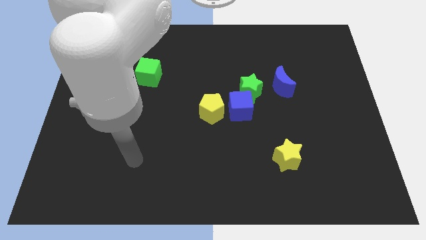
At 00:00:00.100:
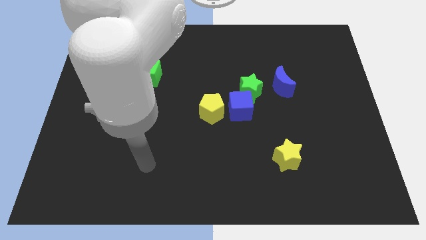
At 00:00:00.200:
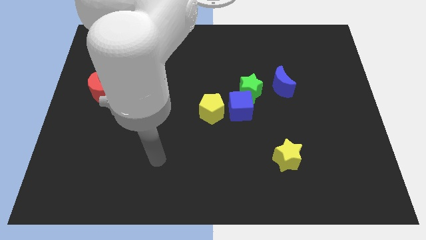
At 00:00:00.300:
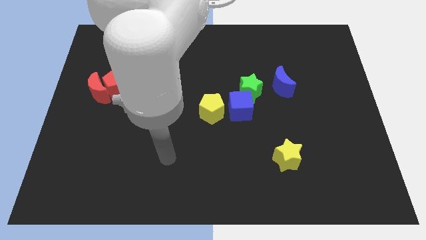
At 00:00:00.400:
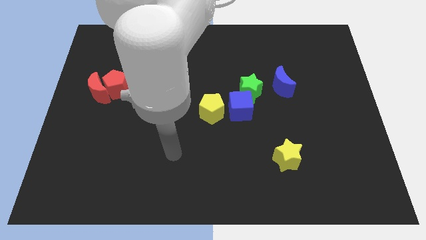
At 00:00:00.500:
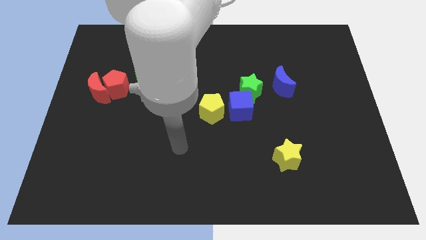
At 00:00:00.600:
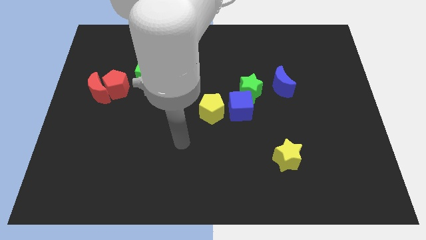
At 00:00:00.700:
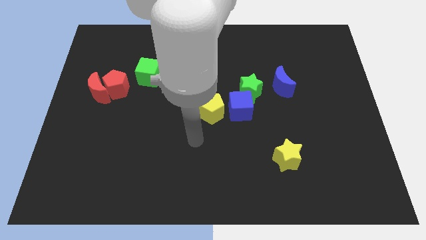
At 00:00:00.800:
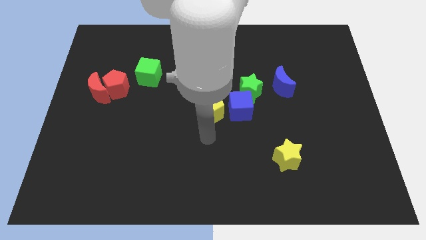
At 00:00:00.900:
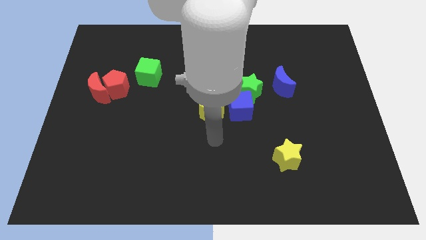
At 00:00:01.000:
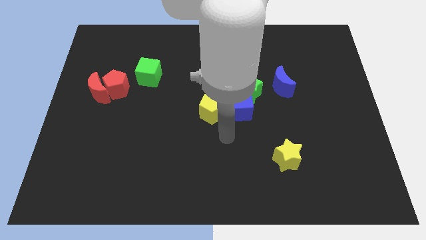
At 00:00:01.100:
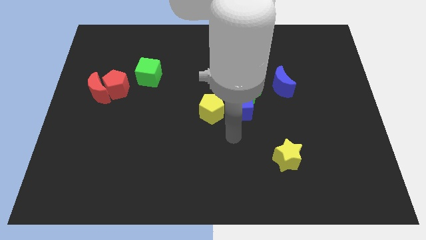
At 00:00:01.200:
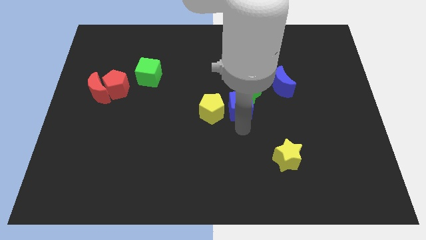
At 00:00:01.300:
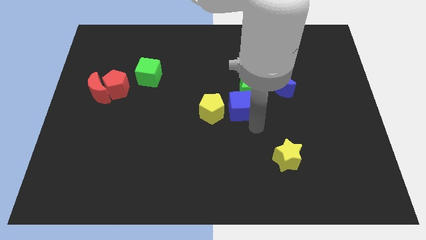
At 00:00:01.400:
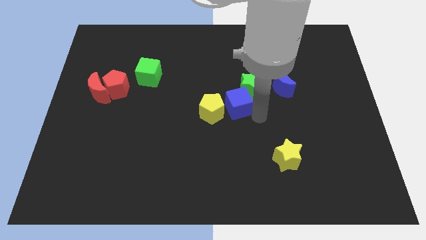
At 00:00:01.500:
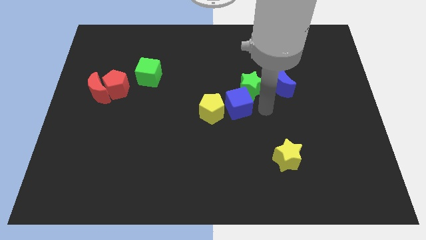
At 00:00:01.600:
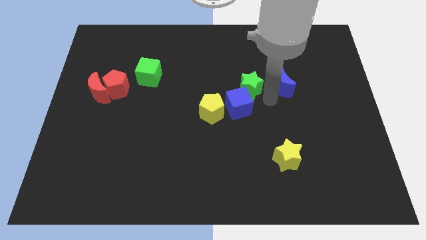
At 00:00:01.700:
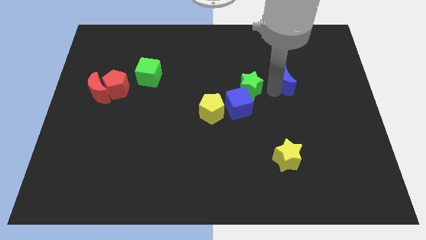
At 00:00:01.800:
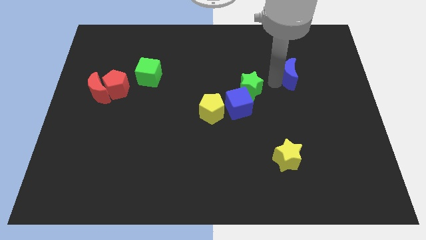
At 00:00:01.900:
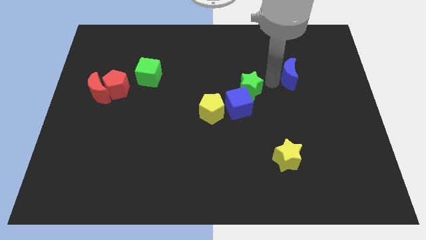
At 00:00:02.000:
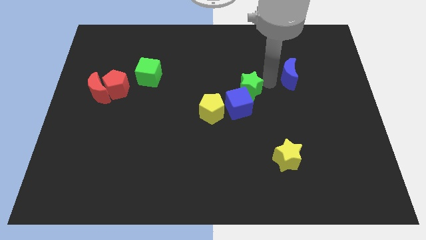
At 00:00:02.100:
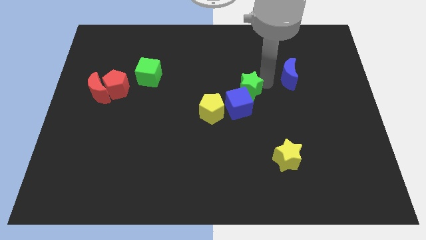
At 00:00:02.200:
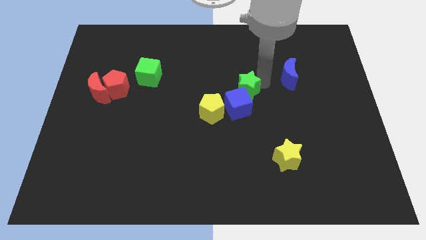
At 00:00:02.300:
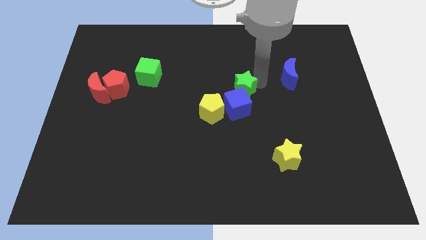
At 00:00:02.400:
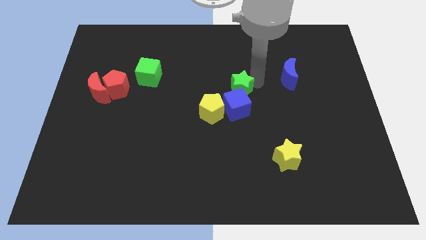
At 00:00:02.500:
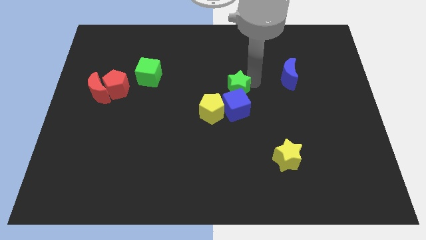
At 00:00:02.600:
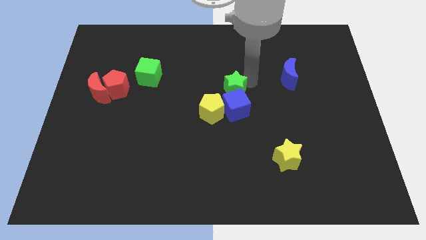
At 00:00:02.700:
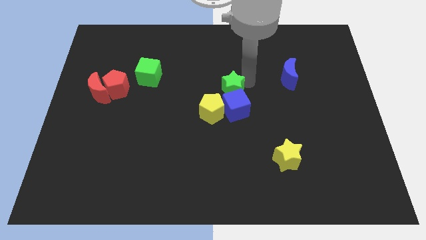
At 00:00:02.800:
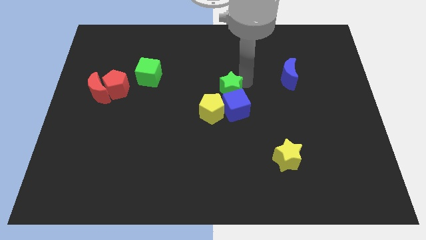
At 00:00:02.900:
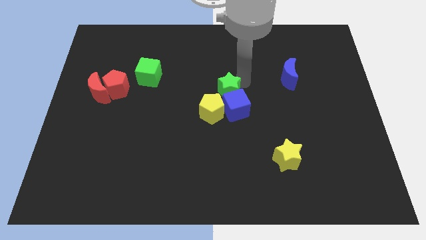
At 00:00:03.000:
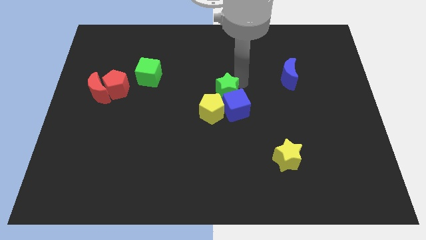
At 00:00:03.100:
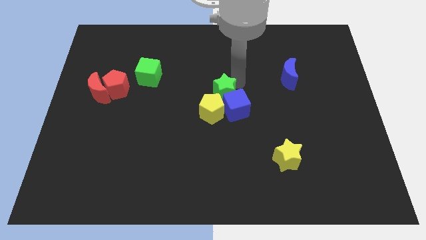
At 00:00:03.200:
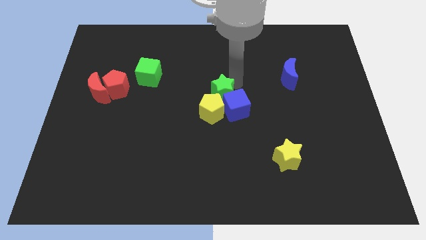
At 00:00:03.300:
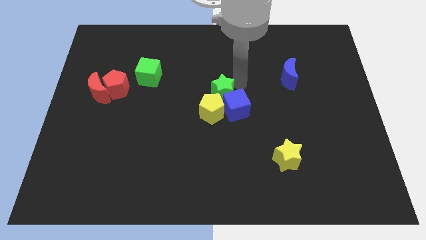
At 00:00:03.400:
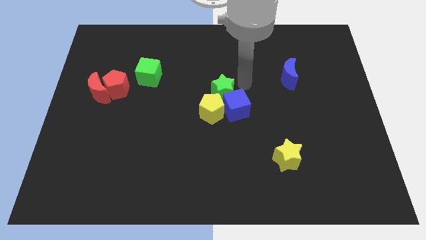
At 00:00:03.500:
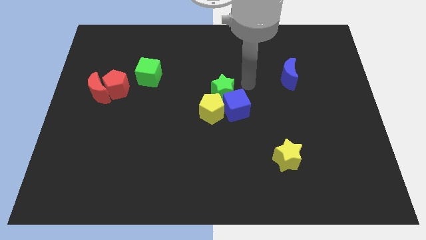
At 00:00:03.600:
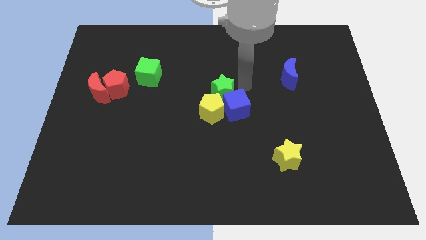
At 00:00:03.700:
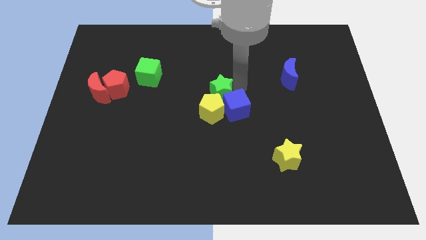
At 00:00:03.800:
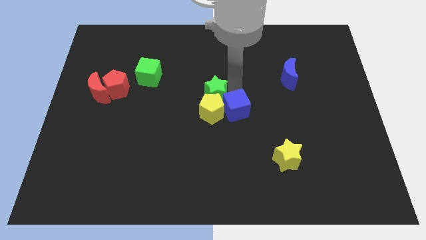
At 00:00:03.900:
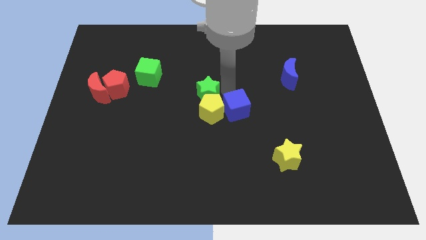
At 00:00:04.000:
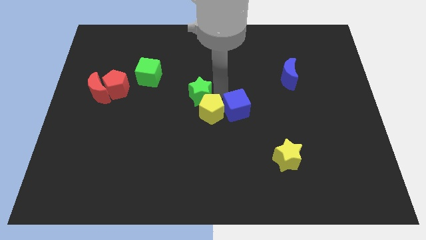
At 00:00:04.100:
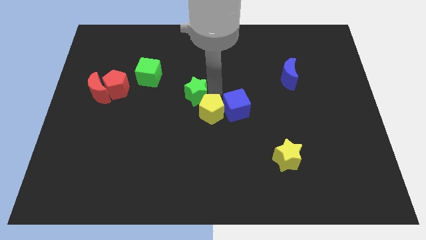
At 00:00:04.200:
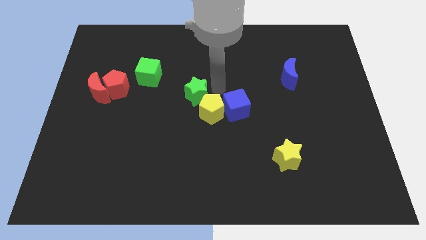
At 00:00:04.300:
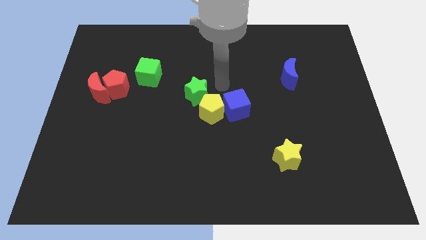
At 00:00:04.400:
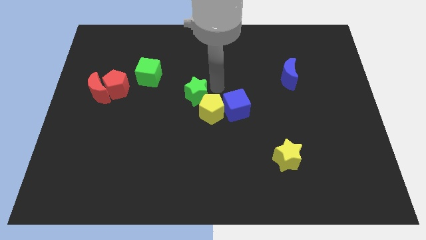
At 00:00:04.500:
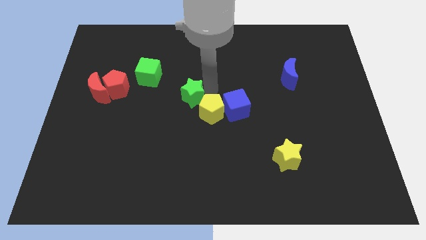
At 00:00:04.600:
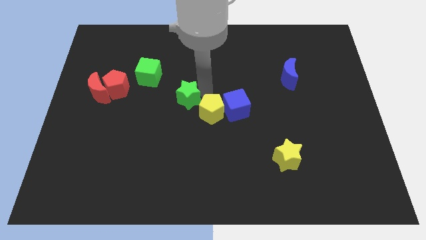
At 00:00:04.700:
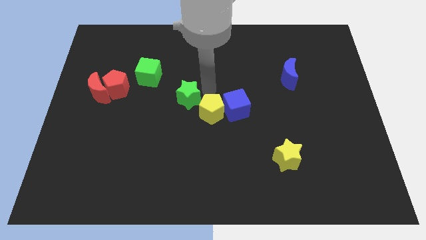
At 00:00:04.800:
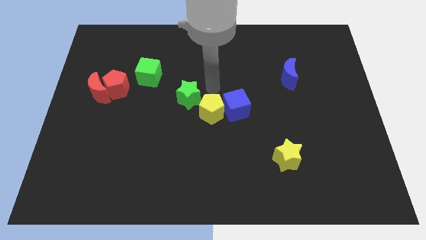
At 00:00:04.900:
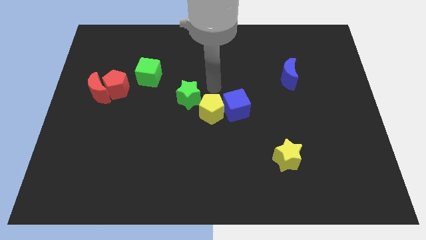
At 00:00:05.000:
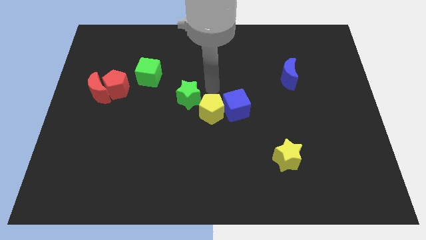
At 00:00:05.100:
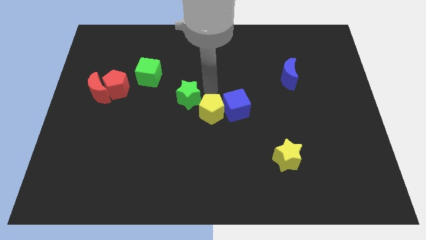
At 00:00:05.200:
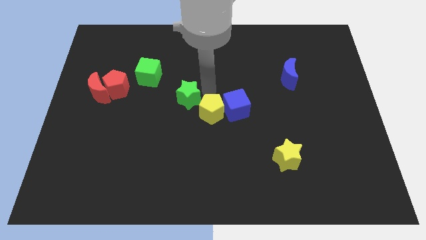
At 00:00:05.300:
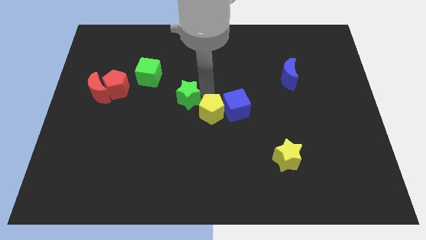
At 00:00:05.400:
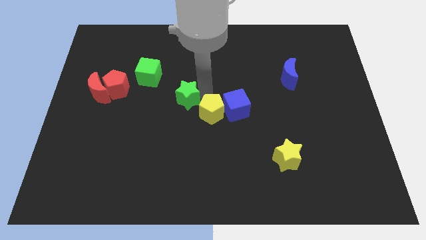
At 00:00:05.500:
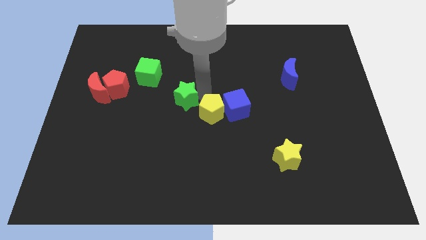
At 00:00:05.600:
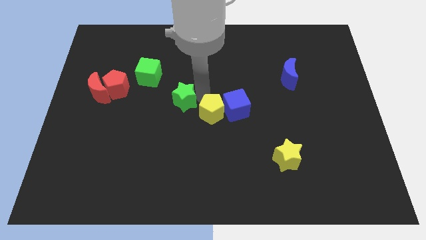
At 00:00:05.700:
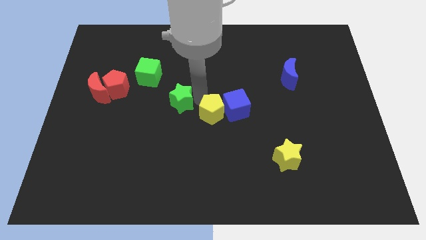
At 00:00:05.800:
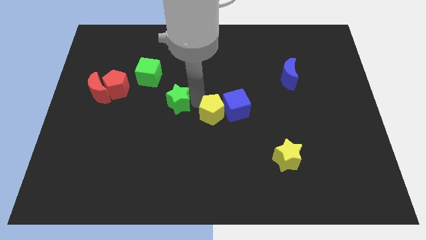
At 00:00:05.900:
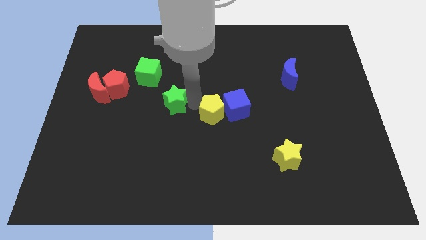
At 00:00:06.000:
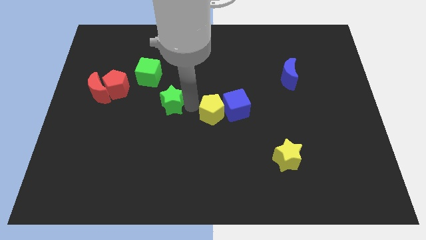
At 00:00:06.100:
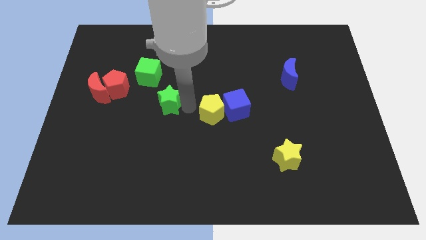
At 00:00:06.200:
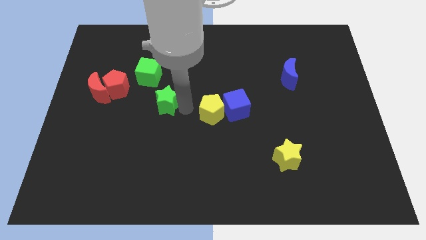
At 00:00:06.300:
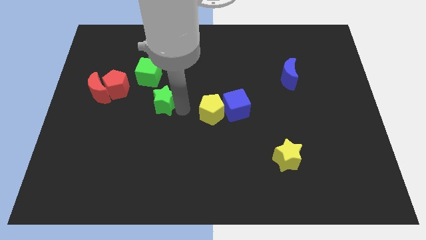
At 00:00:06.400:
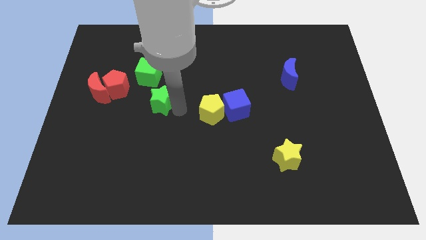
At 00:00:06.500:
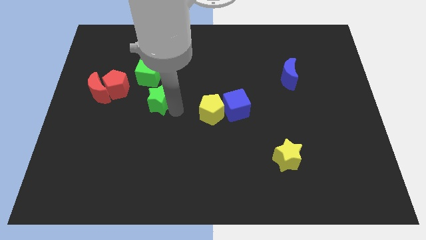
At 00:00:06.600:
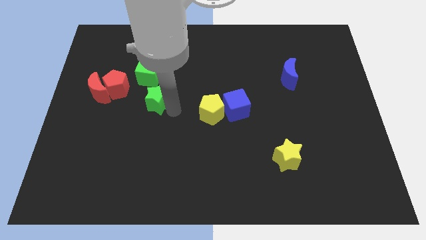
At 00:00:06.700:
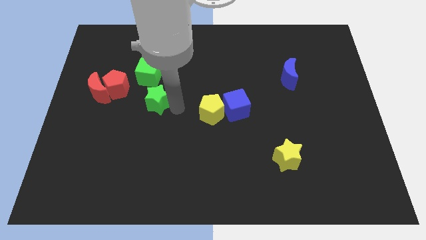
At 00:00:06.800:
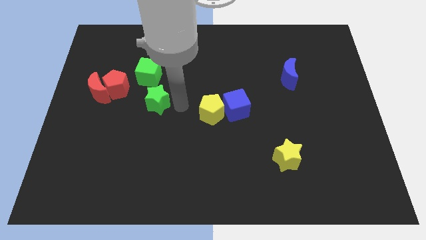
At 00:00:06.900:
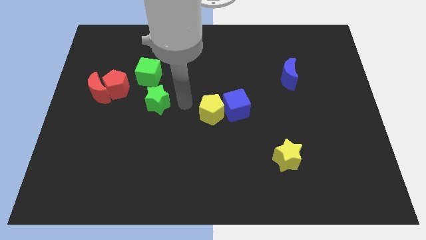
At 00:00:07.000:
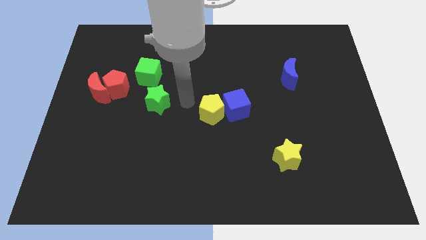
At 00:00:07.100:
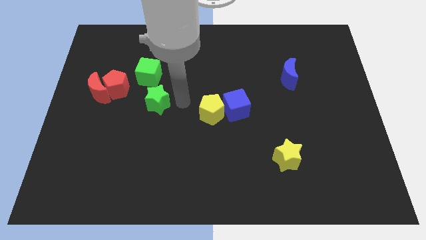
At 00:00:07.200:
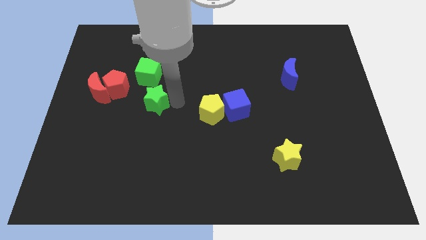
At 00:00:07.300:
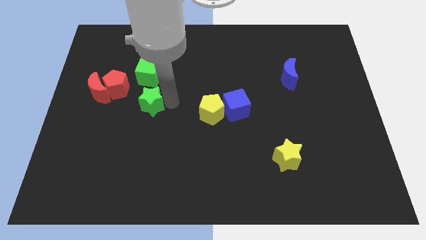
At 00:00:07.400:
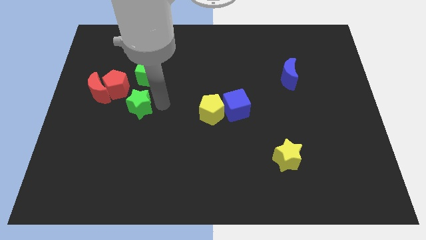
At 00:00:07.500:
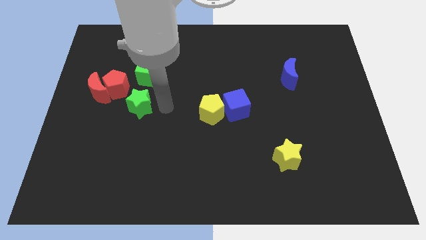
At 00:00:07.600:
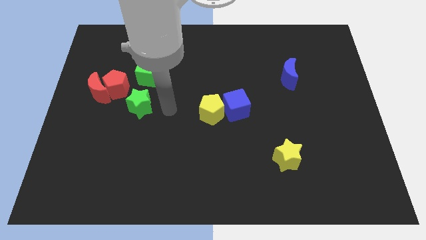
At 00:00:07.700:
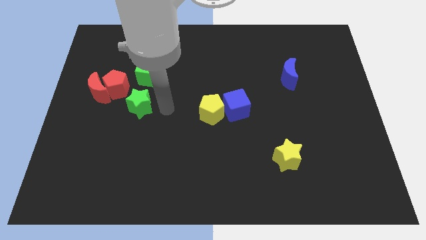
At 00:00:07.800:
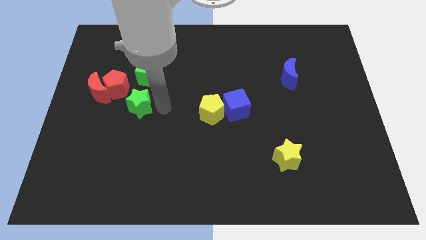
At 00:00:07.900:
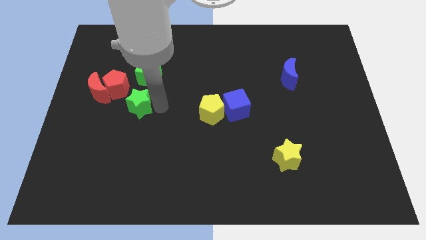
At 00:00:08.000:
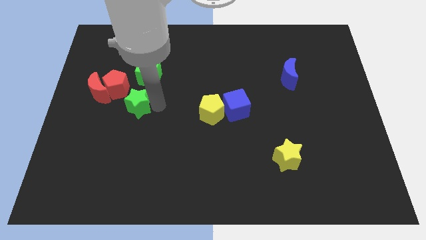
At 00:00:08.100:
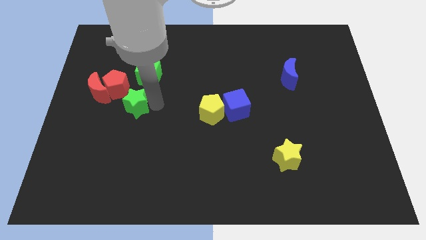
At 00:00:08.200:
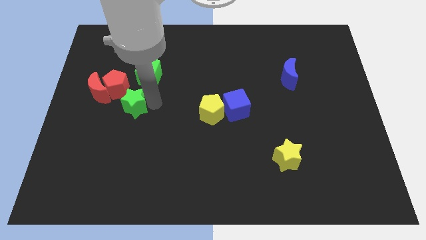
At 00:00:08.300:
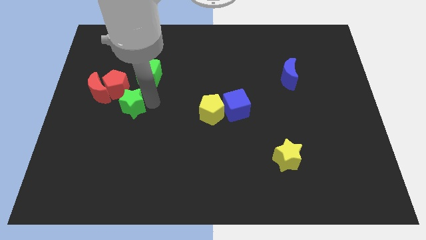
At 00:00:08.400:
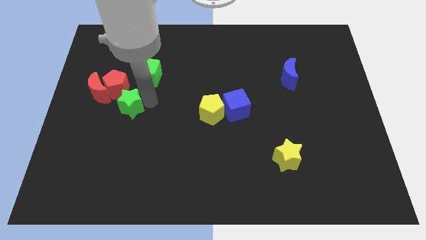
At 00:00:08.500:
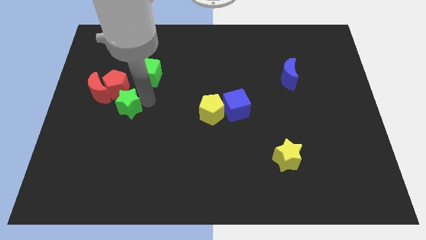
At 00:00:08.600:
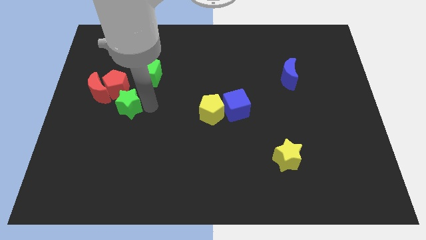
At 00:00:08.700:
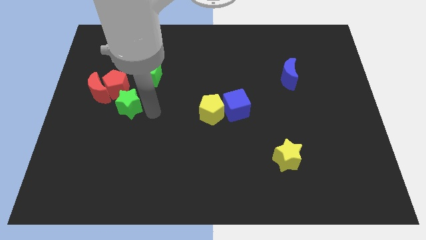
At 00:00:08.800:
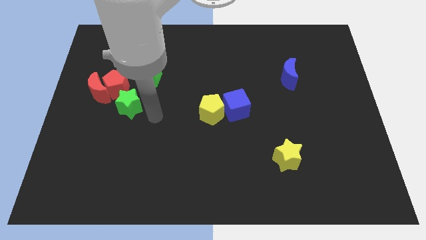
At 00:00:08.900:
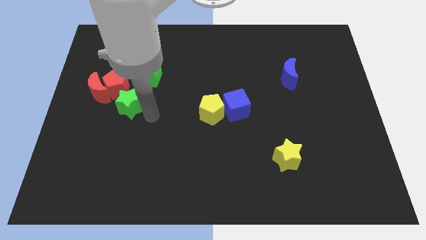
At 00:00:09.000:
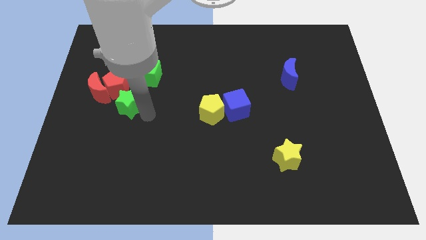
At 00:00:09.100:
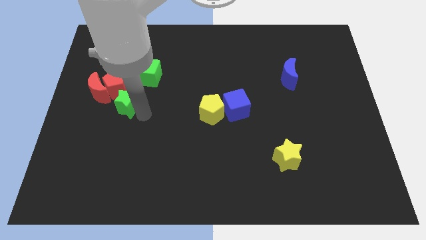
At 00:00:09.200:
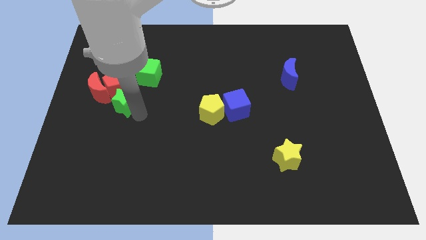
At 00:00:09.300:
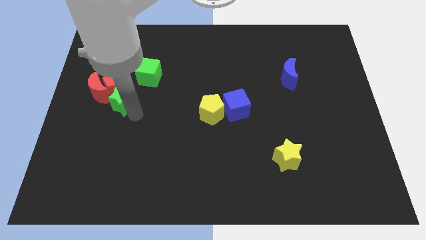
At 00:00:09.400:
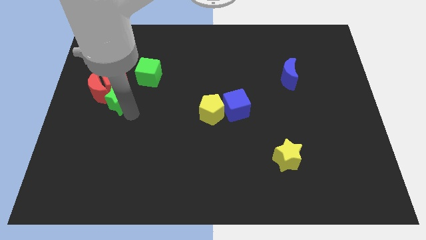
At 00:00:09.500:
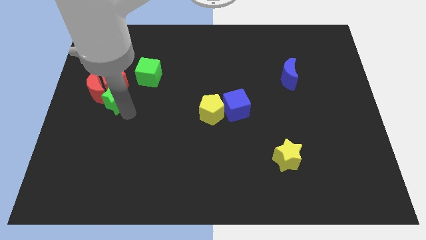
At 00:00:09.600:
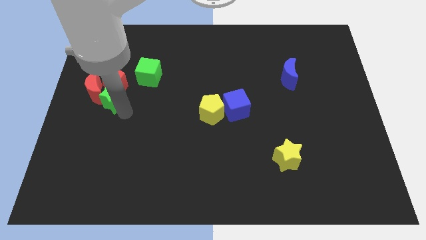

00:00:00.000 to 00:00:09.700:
push the green star to the red moon
